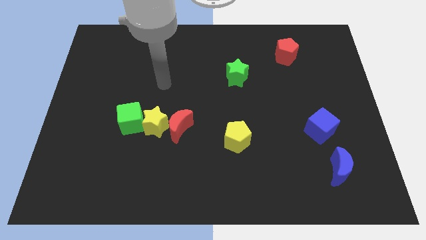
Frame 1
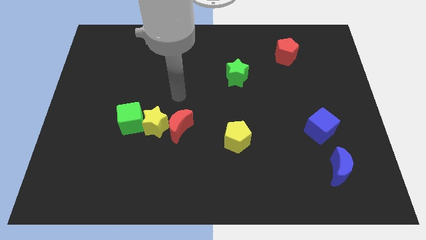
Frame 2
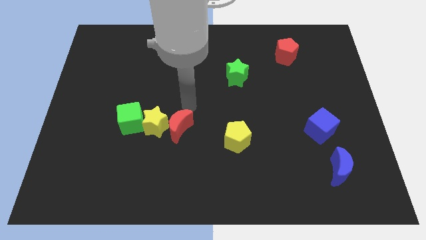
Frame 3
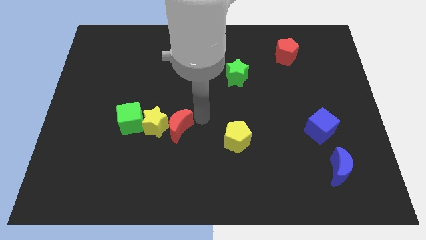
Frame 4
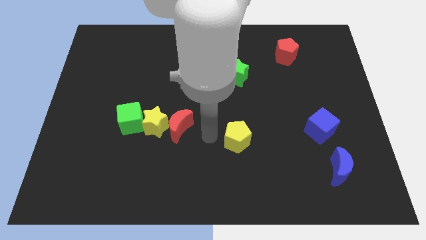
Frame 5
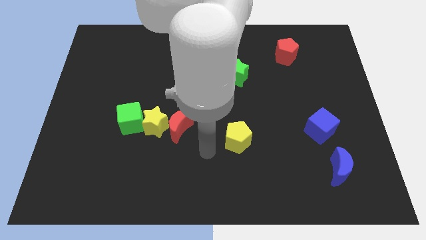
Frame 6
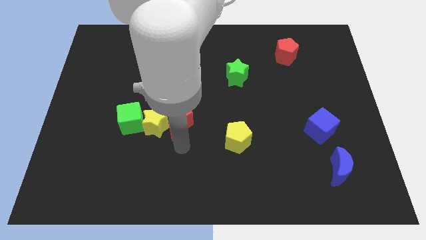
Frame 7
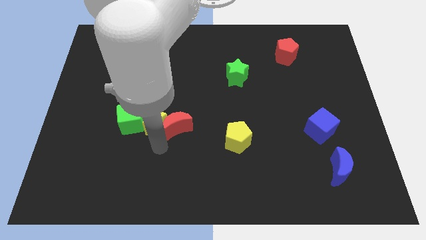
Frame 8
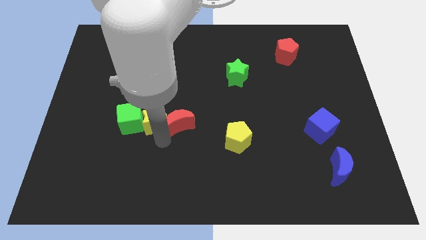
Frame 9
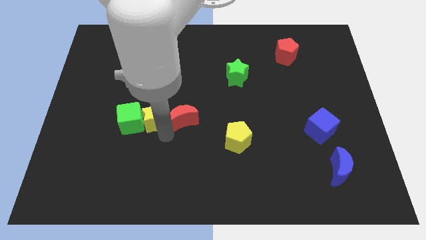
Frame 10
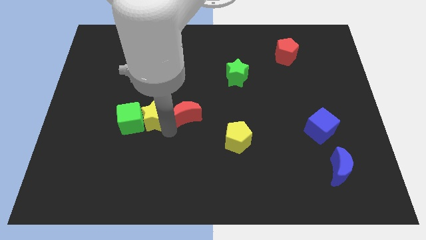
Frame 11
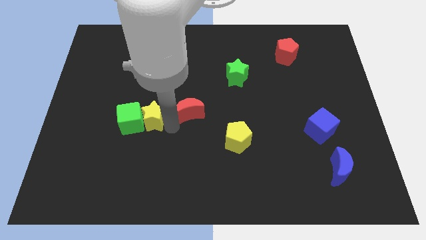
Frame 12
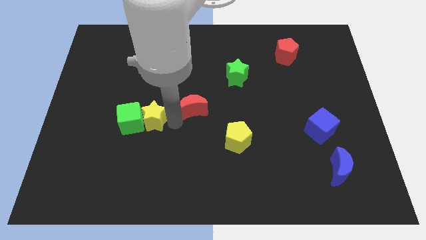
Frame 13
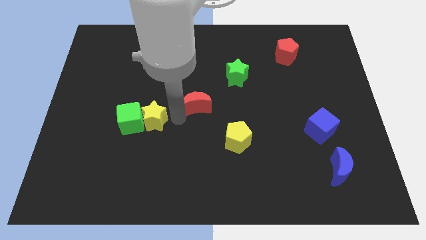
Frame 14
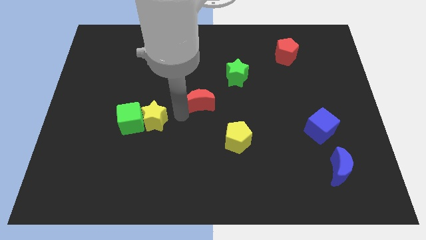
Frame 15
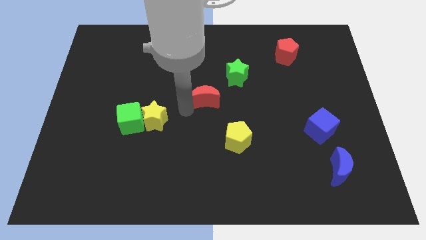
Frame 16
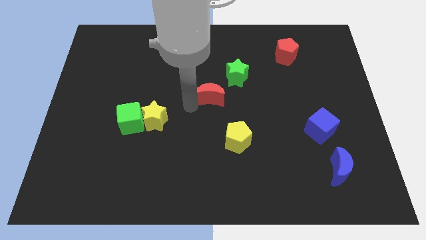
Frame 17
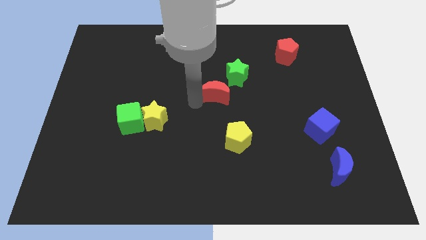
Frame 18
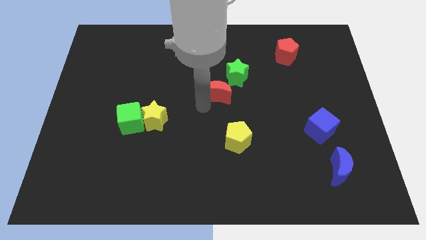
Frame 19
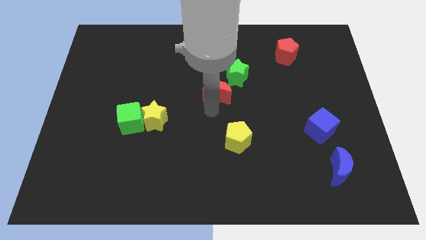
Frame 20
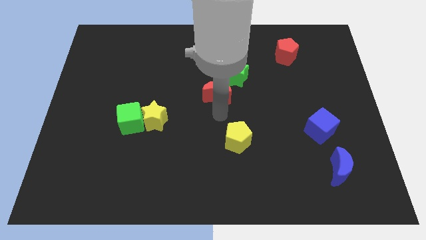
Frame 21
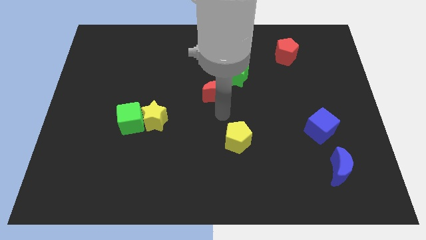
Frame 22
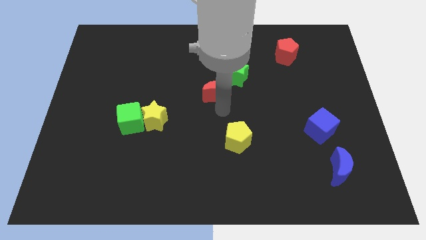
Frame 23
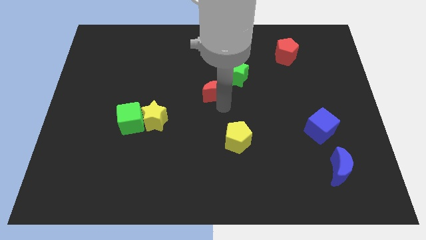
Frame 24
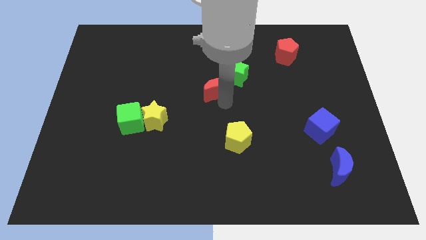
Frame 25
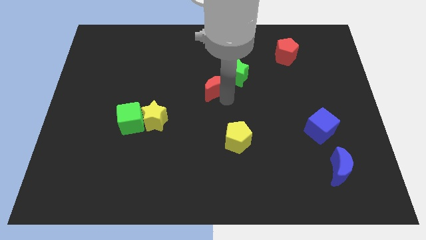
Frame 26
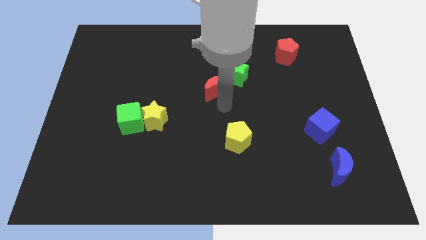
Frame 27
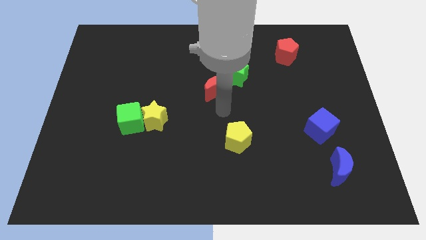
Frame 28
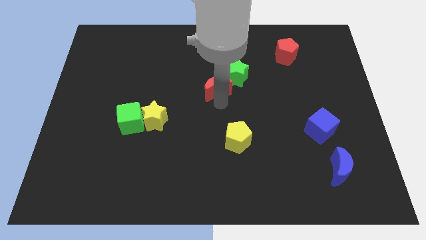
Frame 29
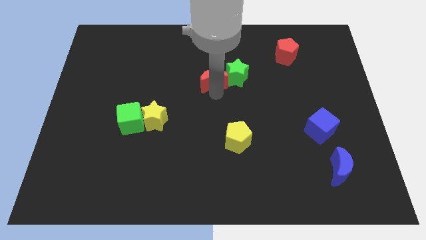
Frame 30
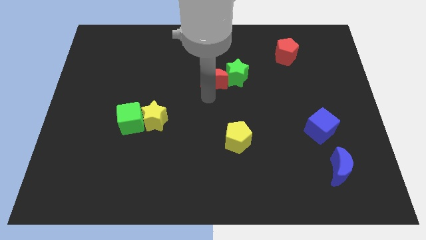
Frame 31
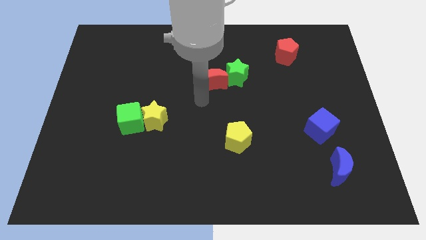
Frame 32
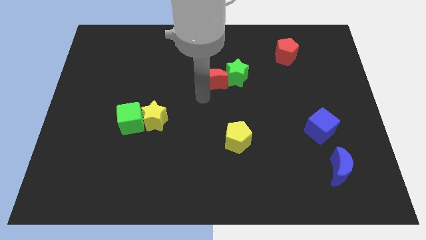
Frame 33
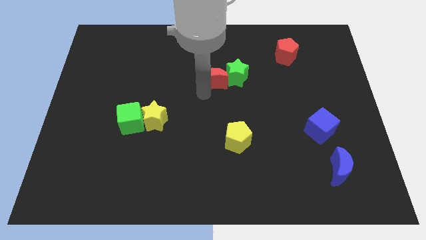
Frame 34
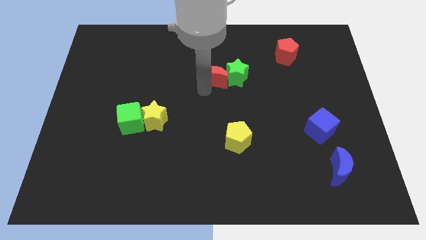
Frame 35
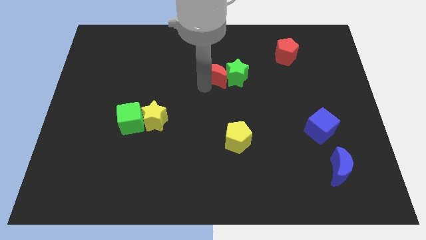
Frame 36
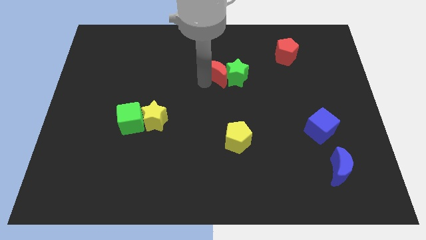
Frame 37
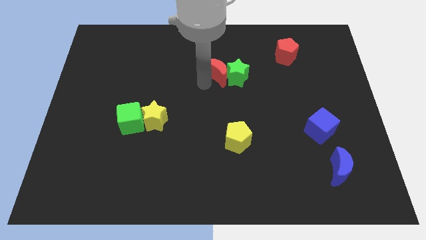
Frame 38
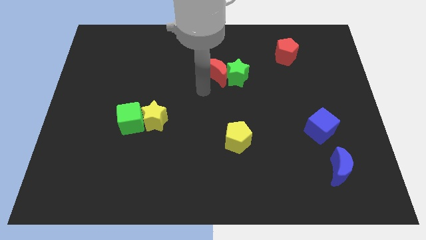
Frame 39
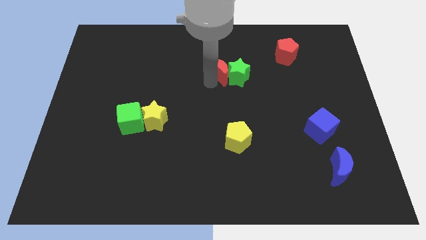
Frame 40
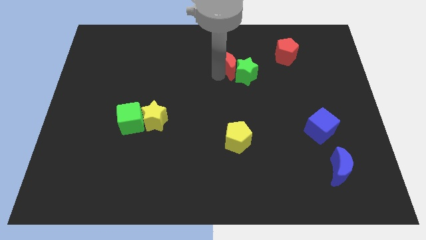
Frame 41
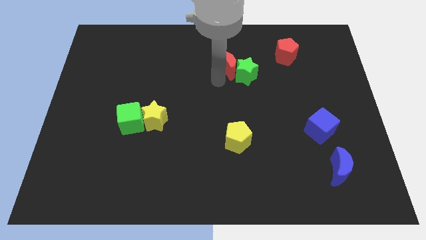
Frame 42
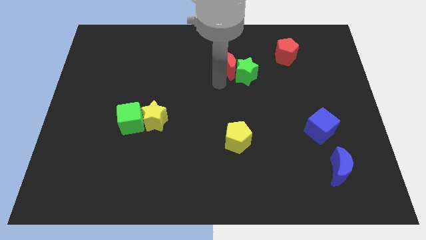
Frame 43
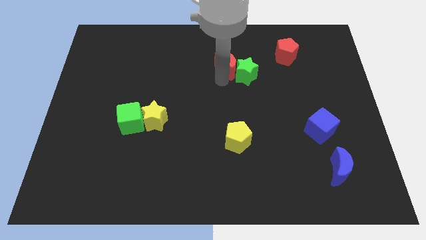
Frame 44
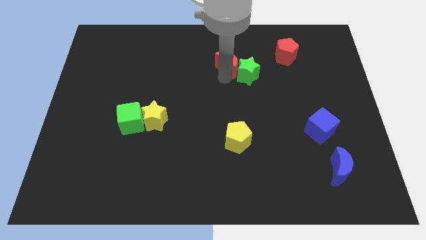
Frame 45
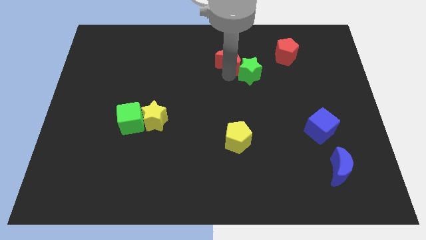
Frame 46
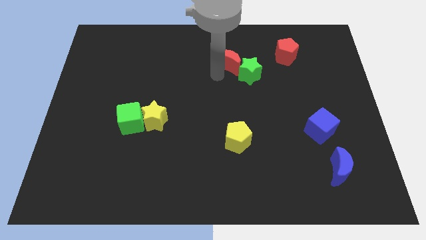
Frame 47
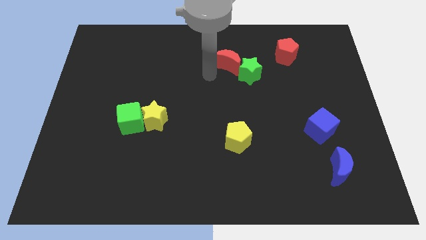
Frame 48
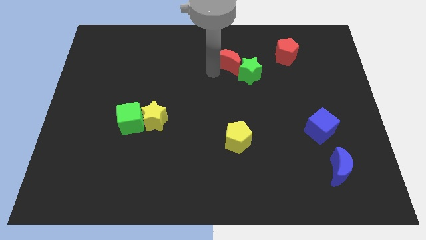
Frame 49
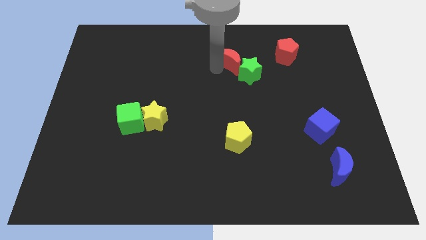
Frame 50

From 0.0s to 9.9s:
push the red moon just left of the red pentagon

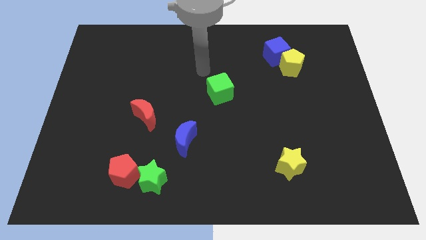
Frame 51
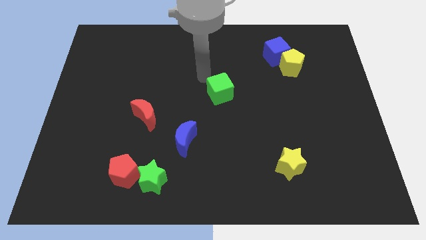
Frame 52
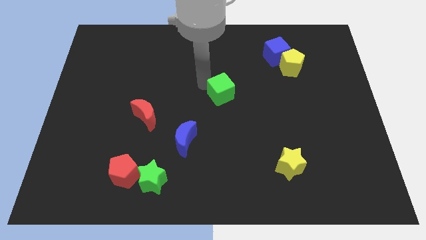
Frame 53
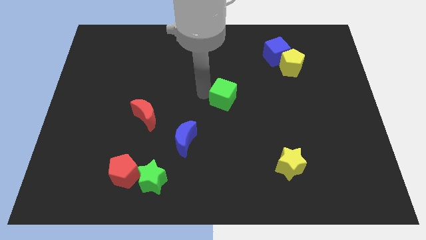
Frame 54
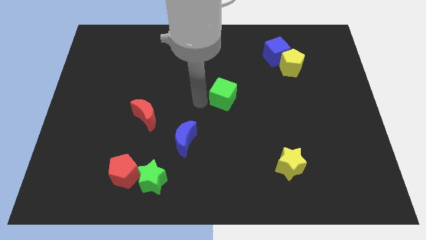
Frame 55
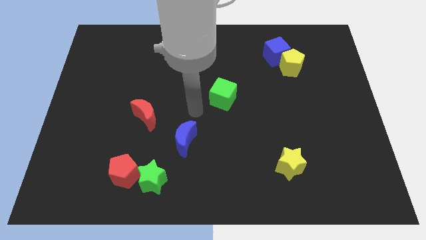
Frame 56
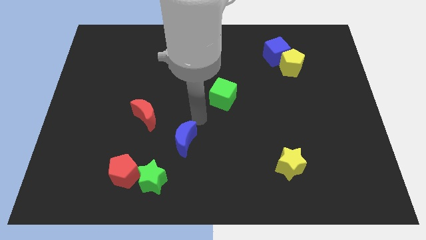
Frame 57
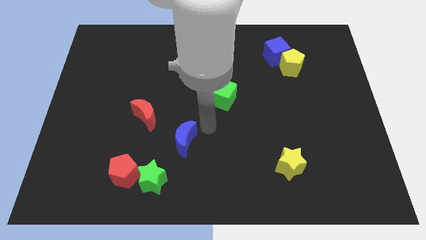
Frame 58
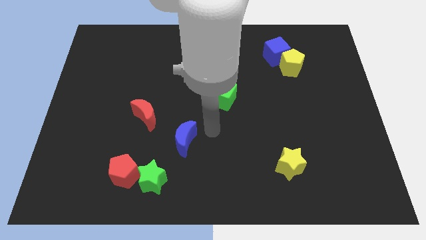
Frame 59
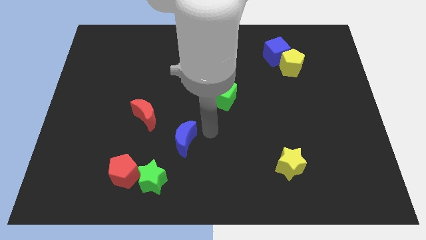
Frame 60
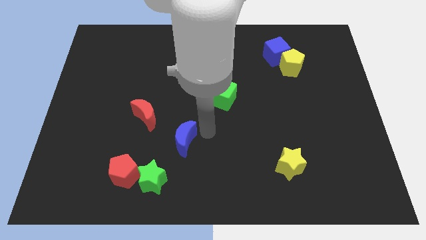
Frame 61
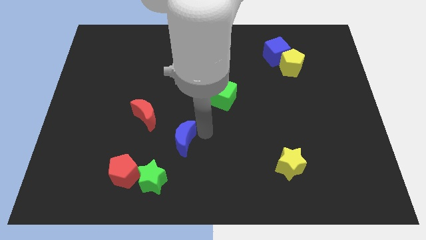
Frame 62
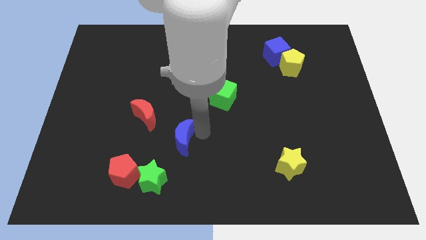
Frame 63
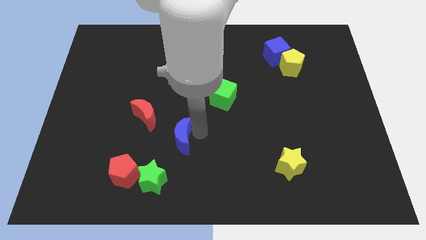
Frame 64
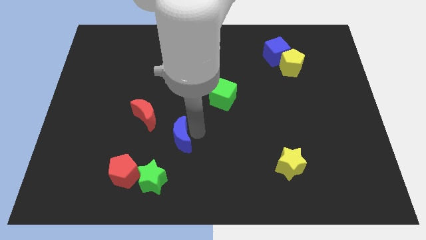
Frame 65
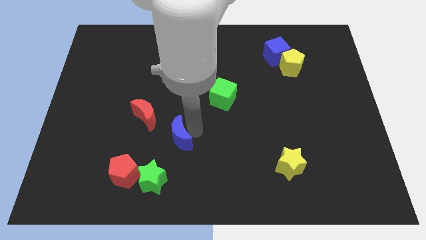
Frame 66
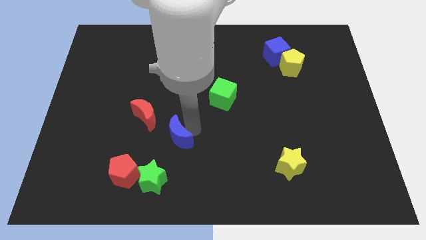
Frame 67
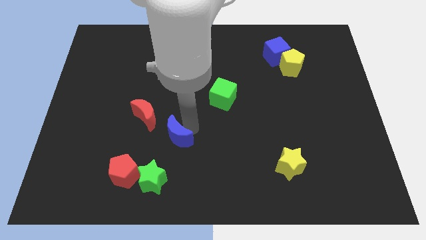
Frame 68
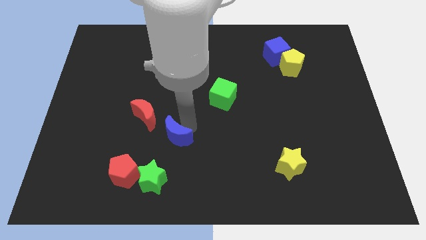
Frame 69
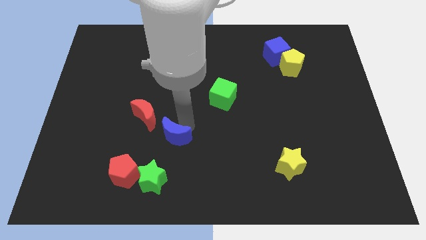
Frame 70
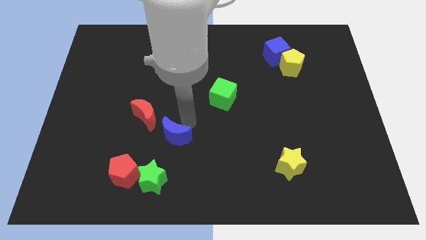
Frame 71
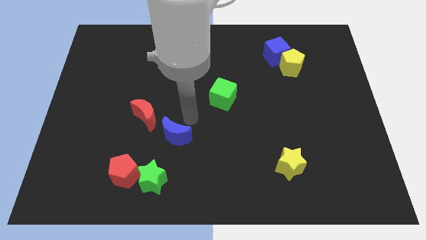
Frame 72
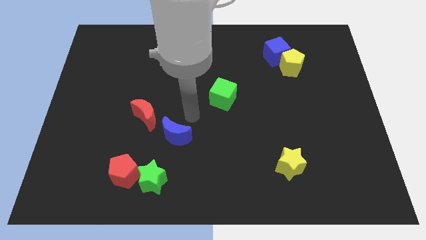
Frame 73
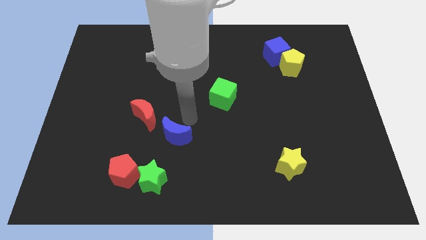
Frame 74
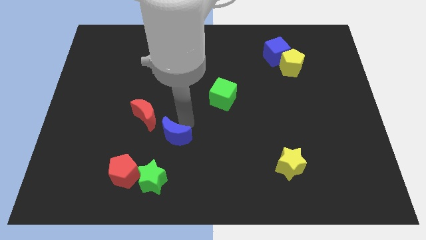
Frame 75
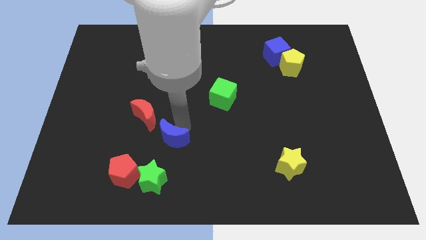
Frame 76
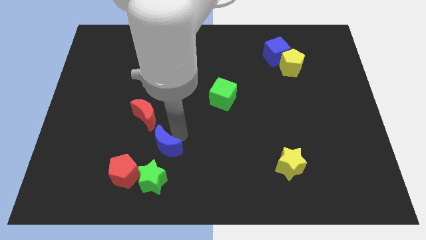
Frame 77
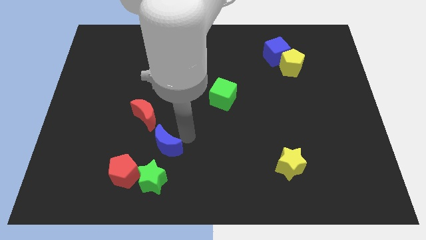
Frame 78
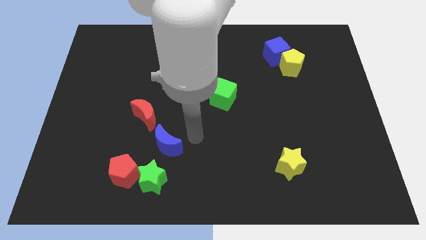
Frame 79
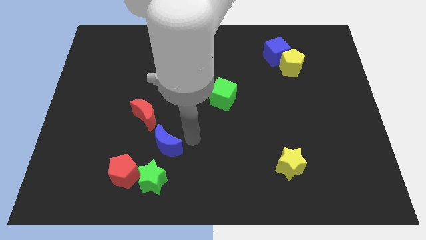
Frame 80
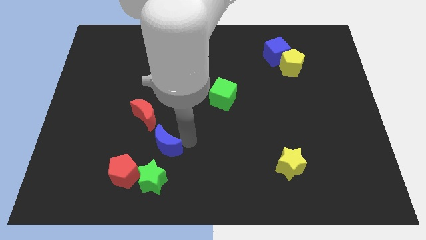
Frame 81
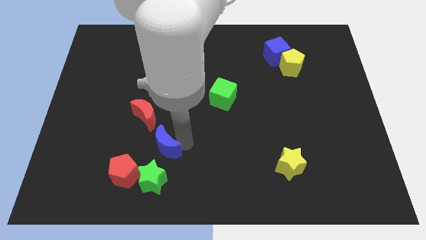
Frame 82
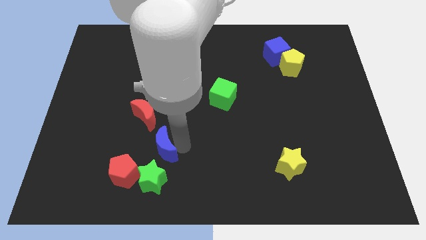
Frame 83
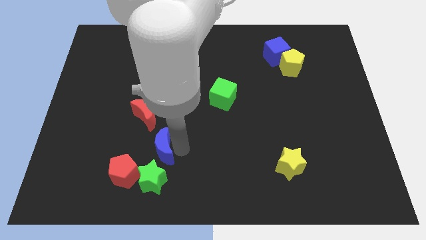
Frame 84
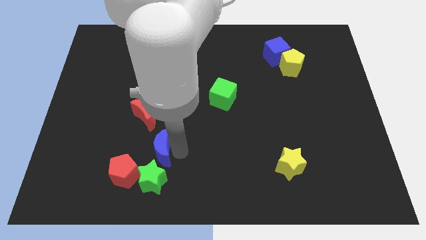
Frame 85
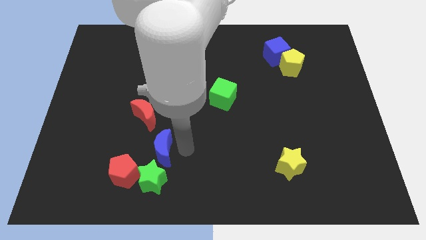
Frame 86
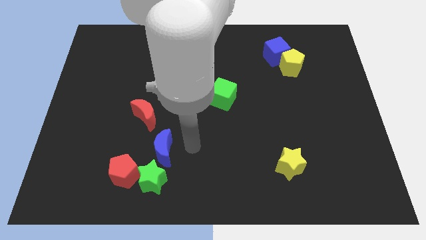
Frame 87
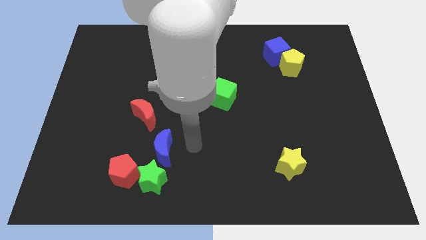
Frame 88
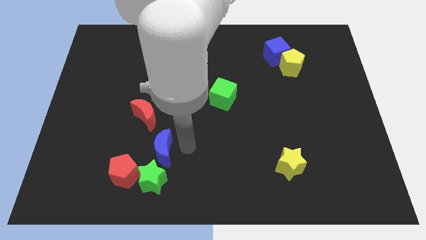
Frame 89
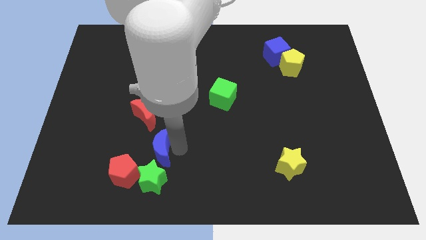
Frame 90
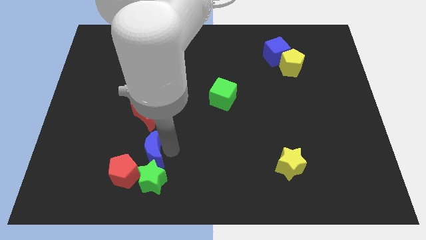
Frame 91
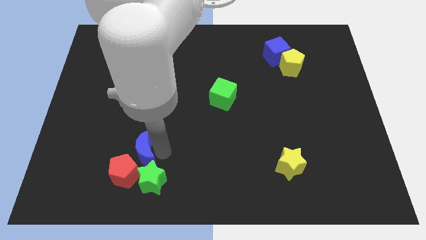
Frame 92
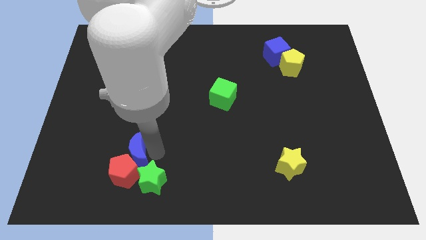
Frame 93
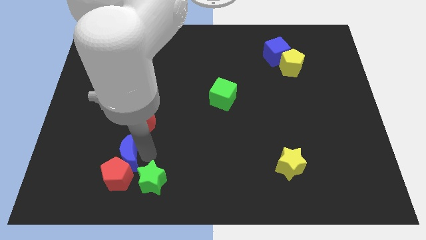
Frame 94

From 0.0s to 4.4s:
put the blue moon diagonally up and to the left of the red pentagon
